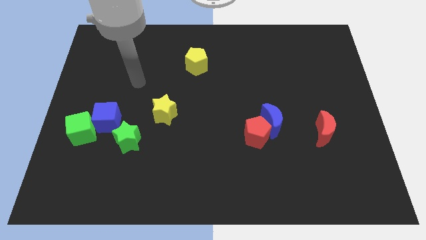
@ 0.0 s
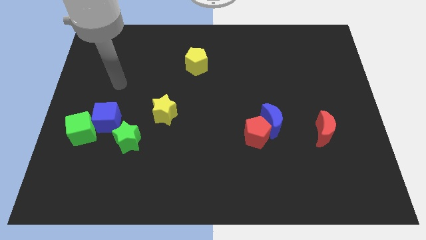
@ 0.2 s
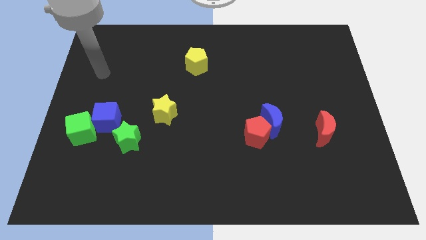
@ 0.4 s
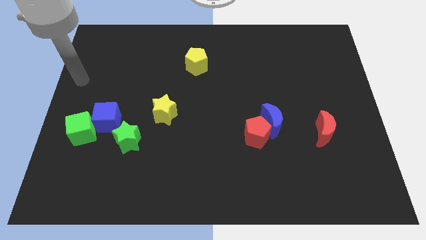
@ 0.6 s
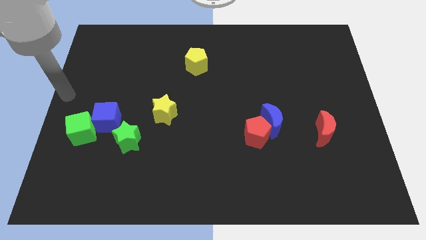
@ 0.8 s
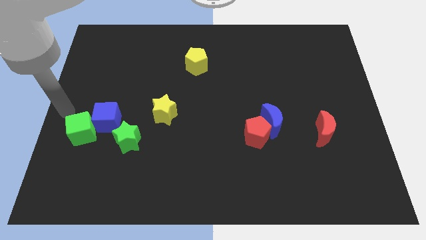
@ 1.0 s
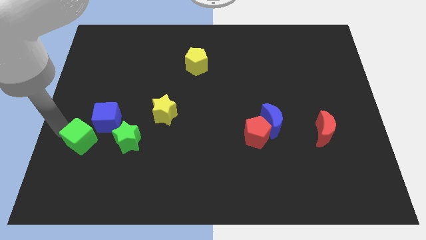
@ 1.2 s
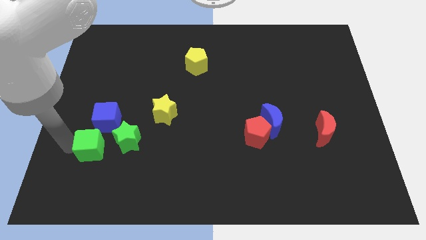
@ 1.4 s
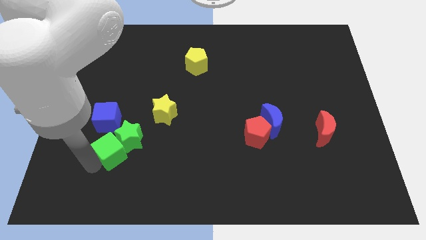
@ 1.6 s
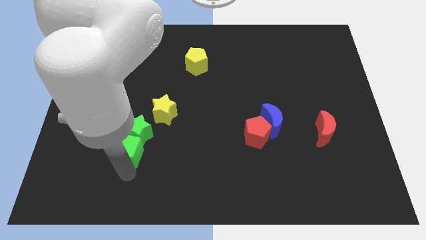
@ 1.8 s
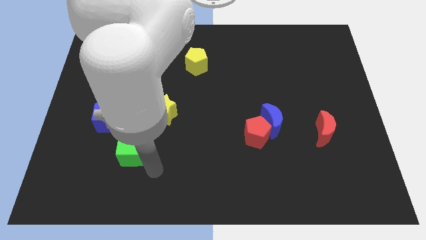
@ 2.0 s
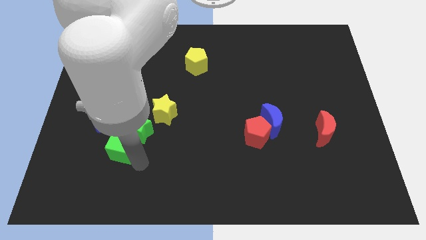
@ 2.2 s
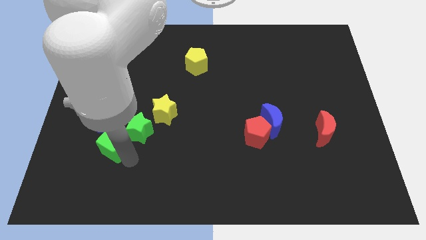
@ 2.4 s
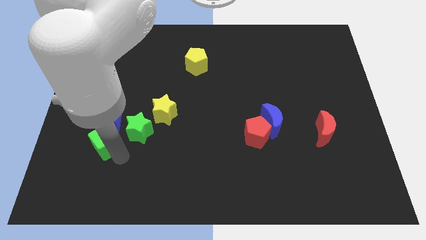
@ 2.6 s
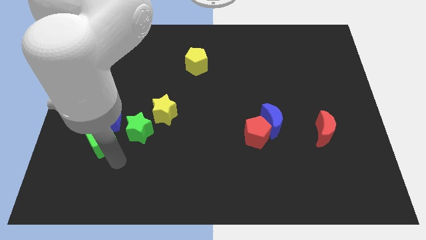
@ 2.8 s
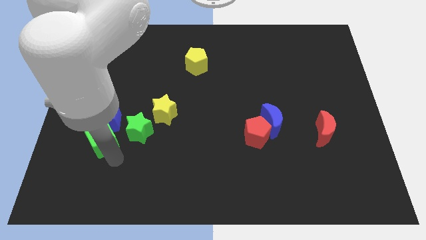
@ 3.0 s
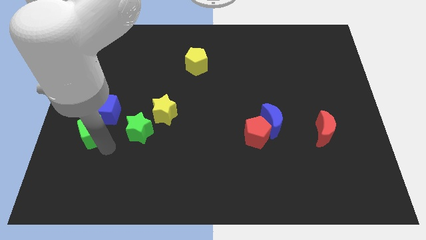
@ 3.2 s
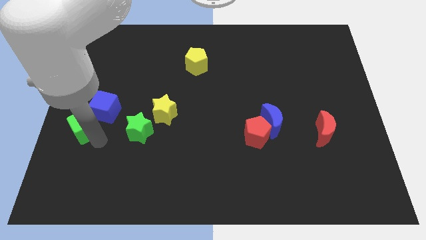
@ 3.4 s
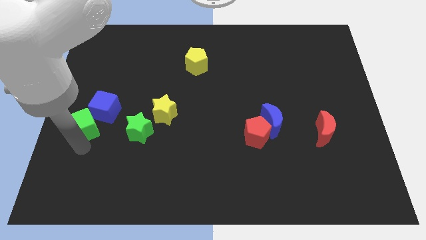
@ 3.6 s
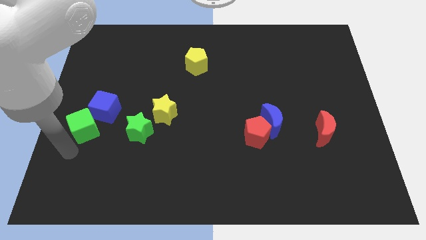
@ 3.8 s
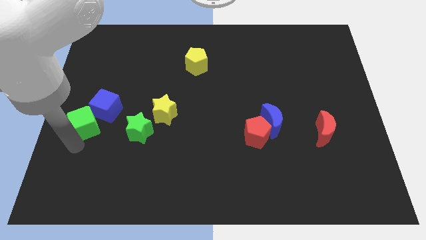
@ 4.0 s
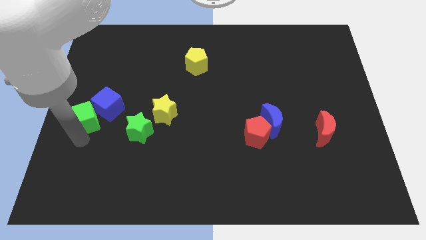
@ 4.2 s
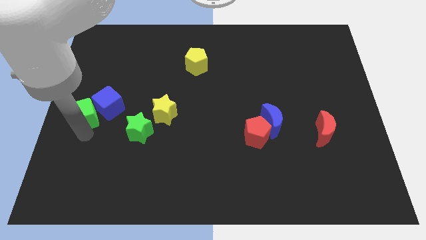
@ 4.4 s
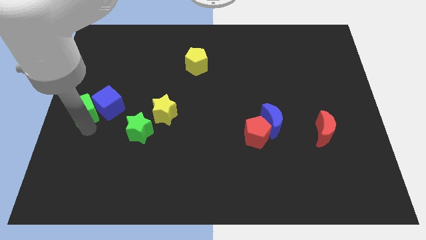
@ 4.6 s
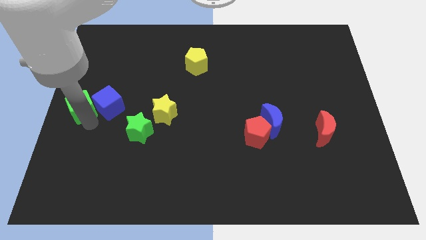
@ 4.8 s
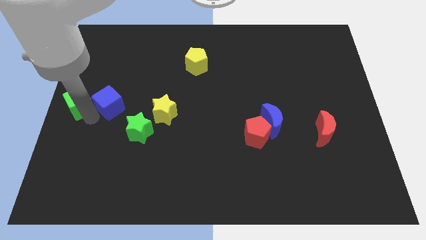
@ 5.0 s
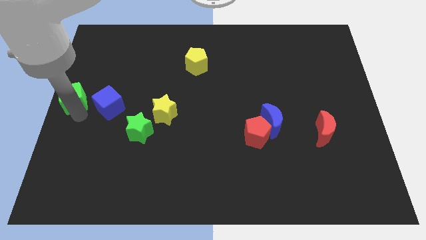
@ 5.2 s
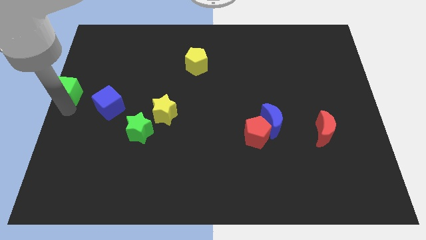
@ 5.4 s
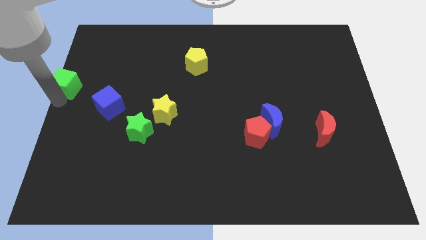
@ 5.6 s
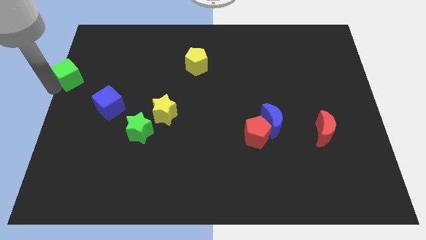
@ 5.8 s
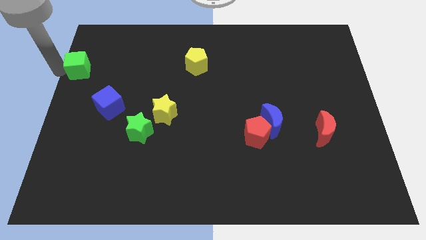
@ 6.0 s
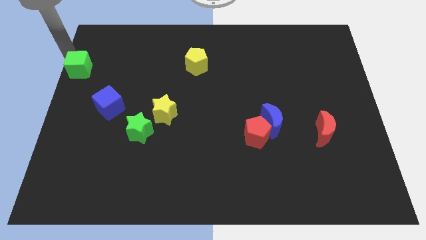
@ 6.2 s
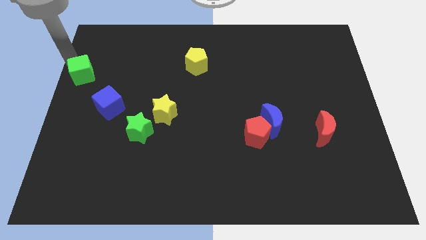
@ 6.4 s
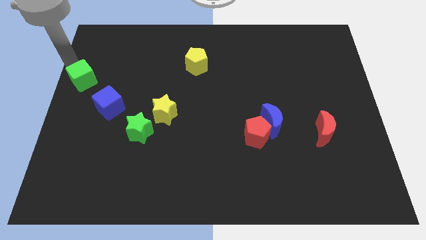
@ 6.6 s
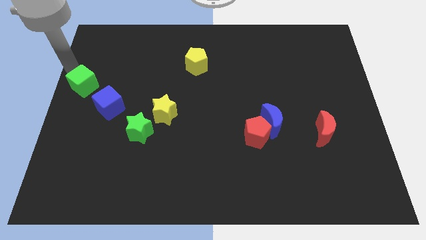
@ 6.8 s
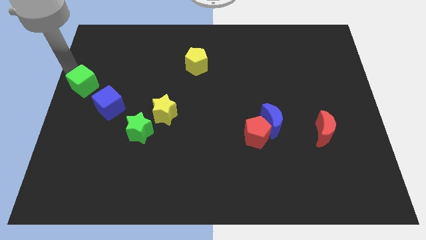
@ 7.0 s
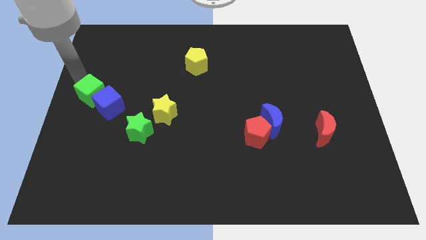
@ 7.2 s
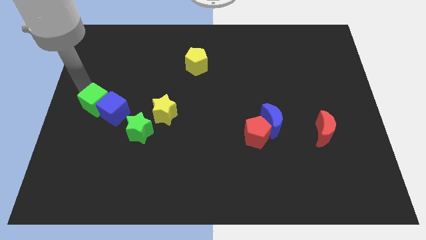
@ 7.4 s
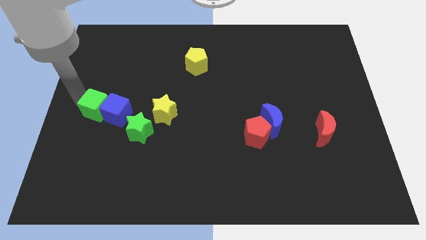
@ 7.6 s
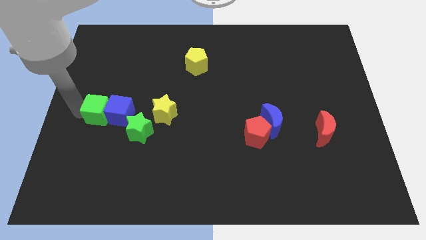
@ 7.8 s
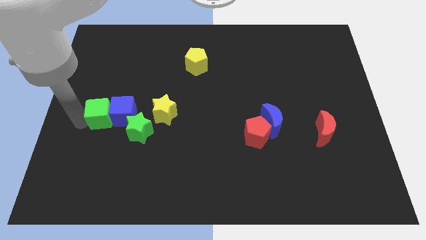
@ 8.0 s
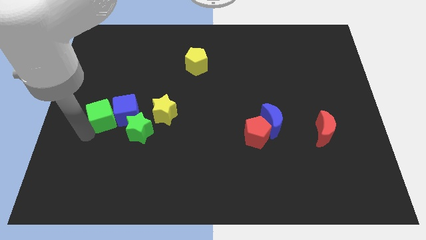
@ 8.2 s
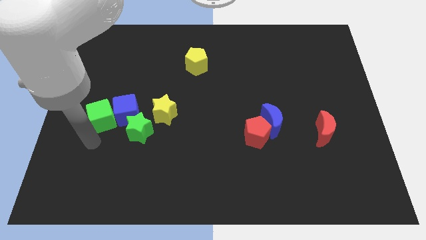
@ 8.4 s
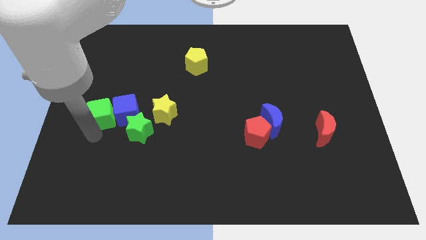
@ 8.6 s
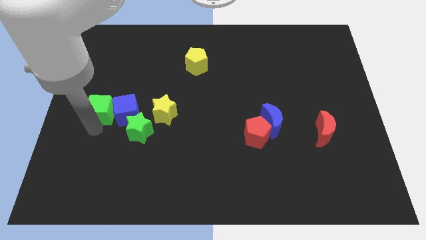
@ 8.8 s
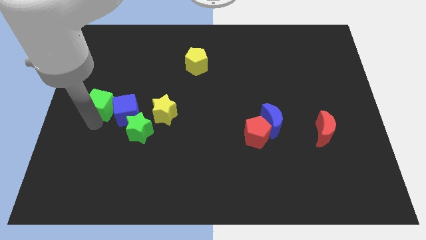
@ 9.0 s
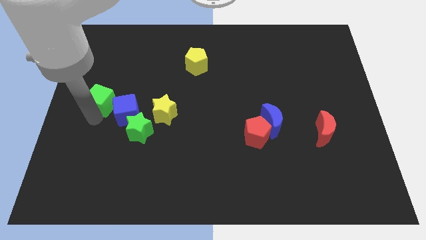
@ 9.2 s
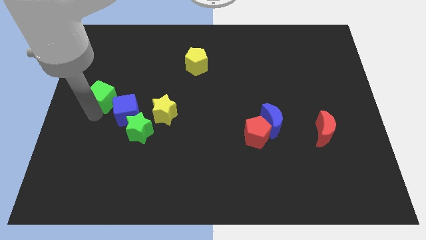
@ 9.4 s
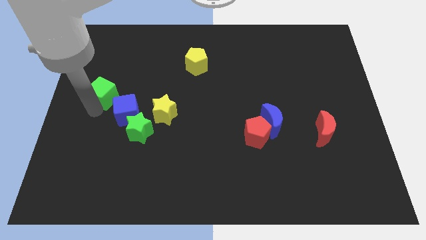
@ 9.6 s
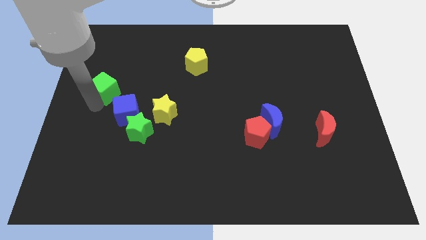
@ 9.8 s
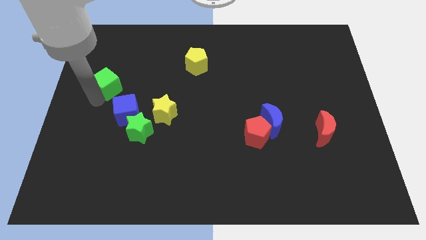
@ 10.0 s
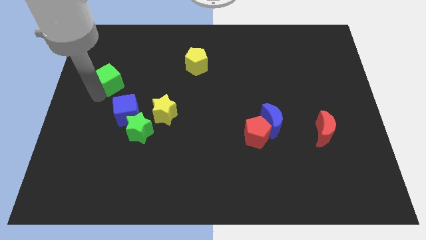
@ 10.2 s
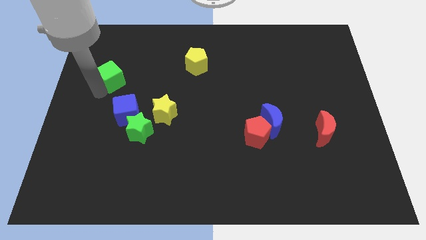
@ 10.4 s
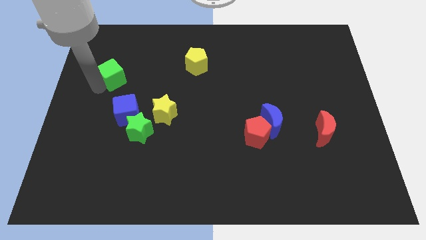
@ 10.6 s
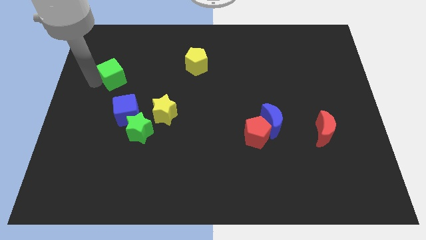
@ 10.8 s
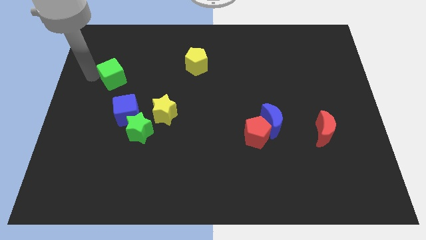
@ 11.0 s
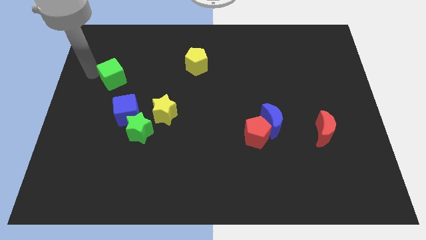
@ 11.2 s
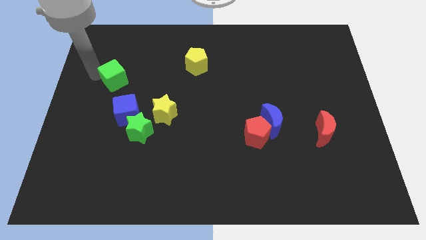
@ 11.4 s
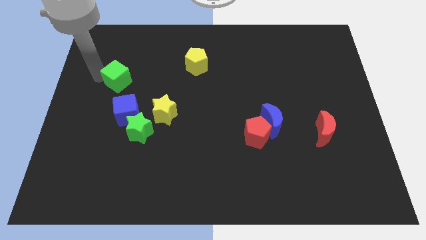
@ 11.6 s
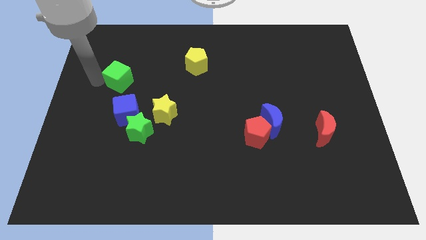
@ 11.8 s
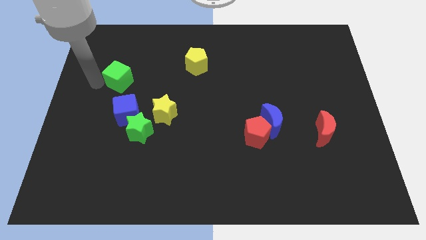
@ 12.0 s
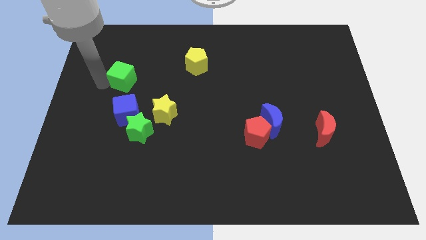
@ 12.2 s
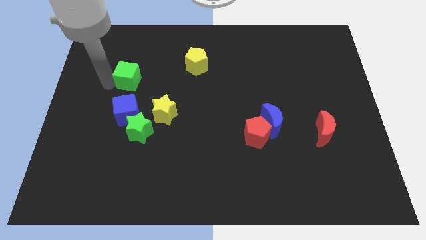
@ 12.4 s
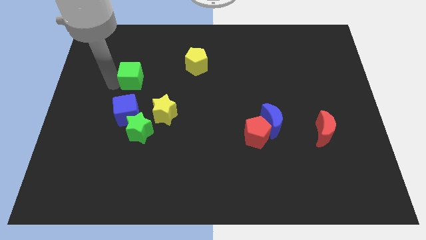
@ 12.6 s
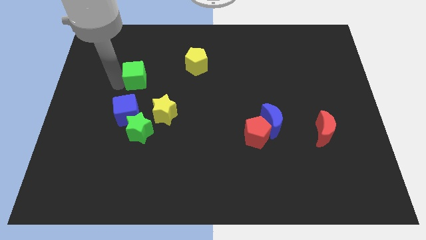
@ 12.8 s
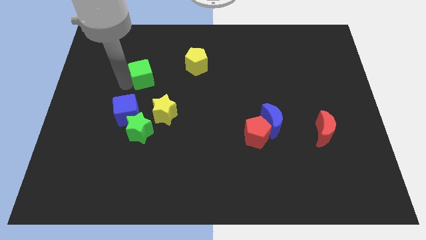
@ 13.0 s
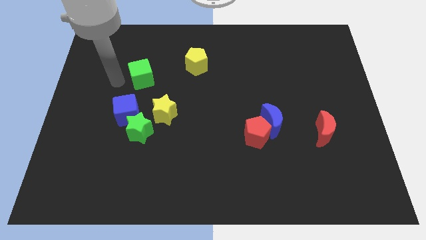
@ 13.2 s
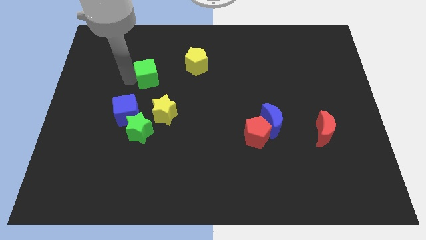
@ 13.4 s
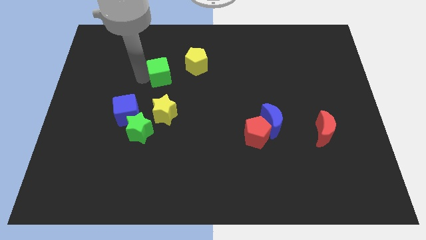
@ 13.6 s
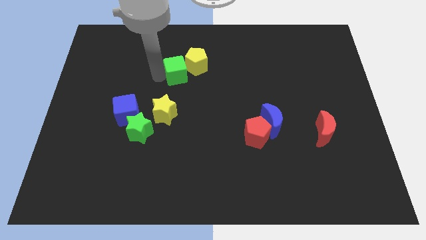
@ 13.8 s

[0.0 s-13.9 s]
move the green cube to the yellow pentagon

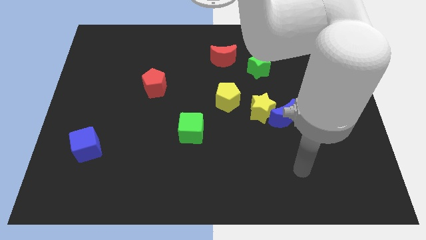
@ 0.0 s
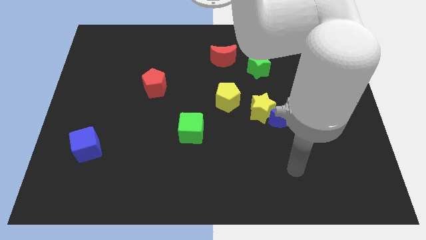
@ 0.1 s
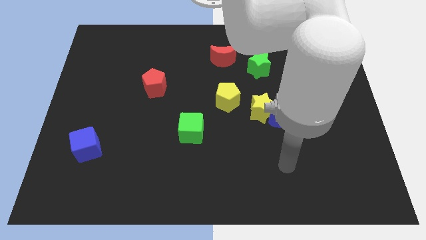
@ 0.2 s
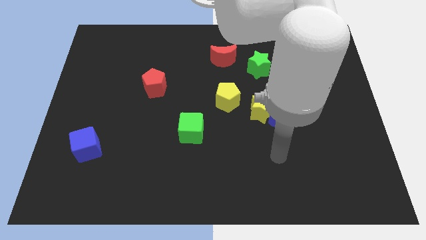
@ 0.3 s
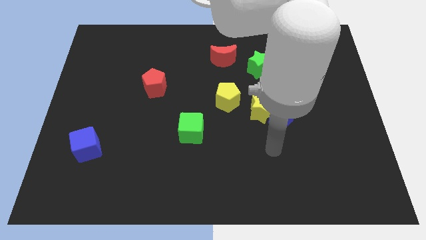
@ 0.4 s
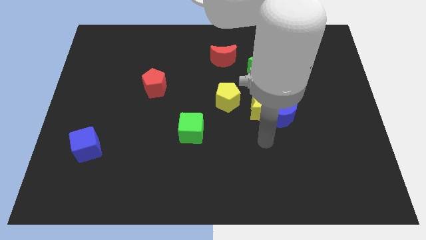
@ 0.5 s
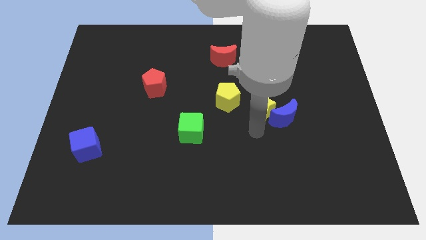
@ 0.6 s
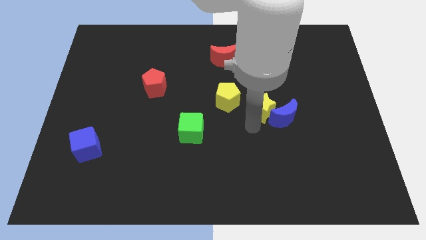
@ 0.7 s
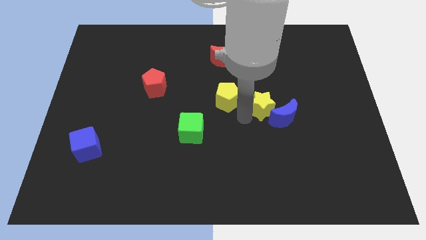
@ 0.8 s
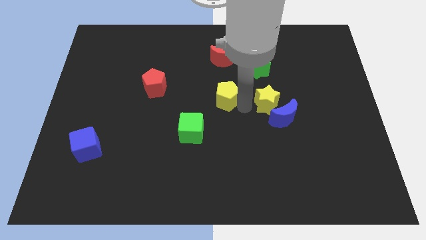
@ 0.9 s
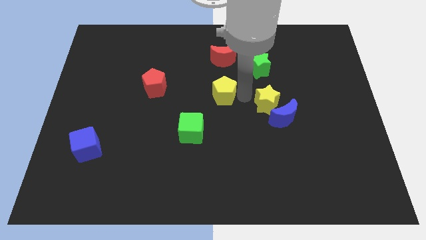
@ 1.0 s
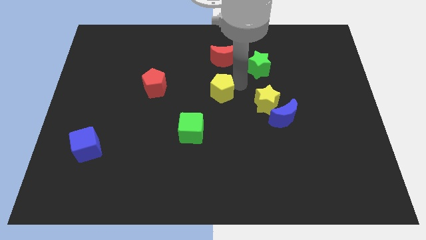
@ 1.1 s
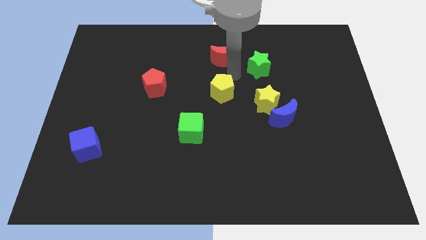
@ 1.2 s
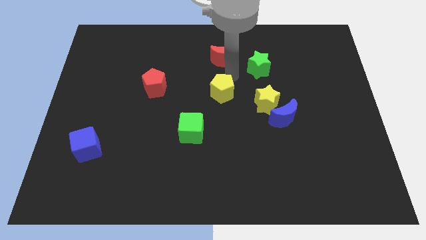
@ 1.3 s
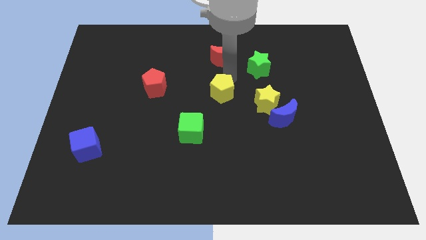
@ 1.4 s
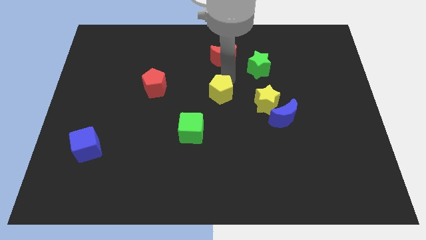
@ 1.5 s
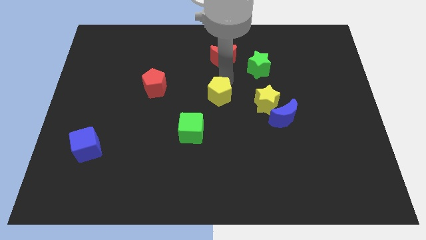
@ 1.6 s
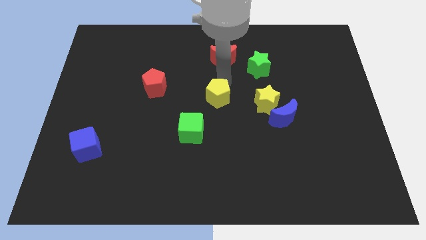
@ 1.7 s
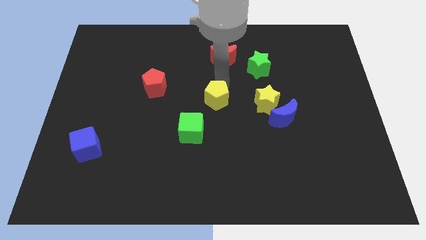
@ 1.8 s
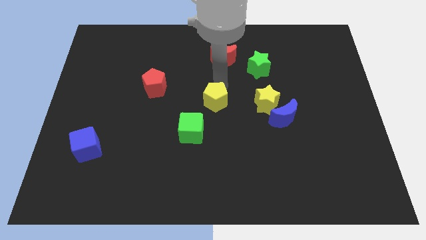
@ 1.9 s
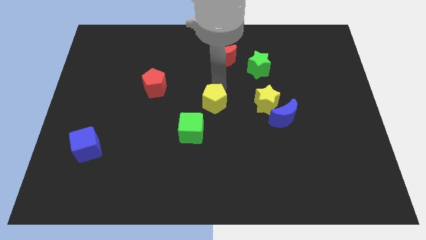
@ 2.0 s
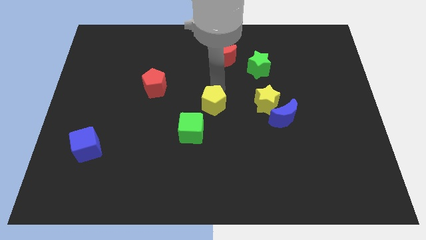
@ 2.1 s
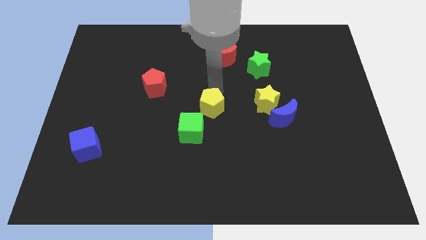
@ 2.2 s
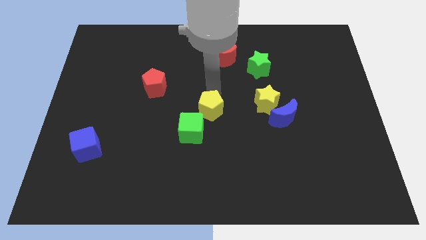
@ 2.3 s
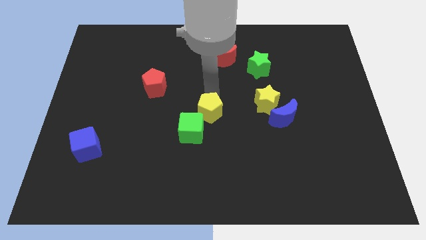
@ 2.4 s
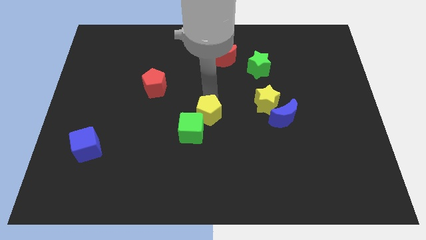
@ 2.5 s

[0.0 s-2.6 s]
push the yellow pentagon towards the green cube
